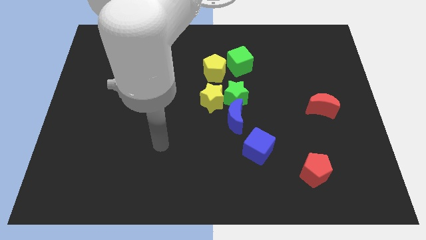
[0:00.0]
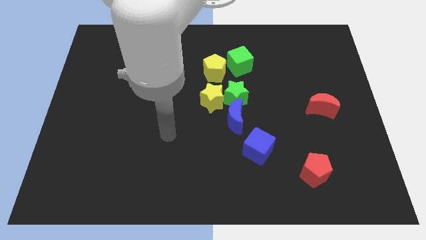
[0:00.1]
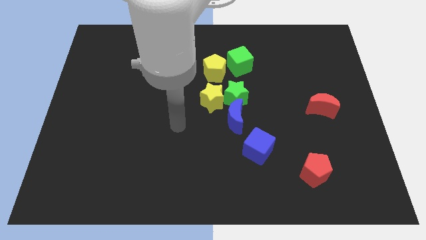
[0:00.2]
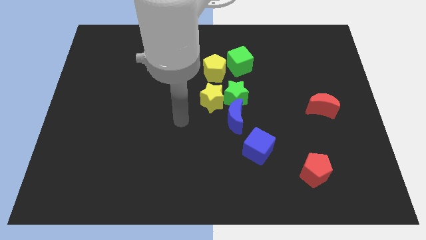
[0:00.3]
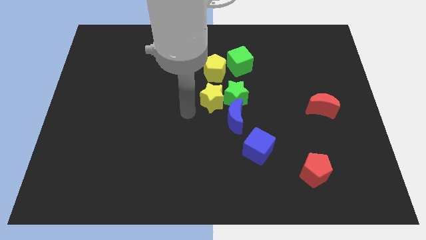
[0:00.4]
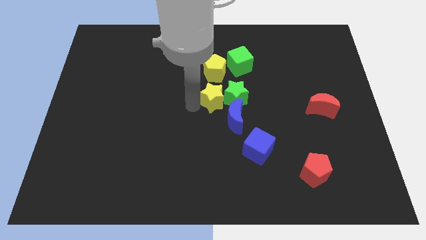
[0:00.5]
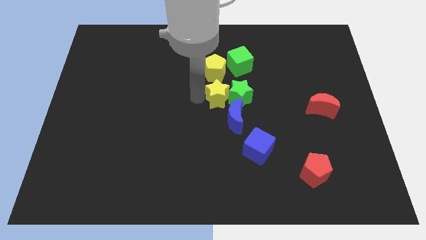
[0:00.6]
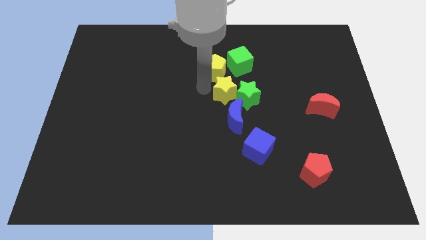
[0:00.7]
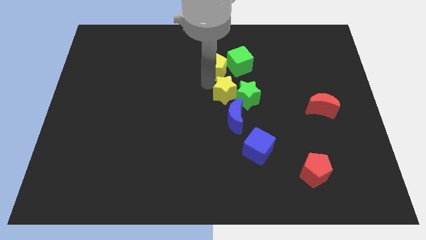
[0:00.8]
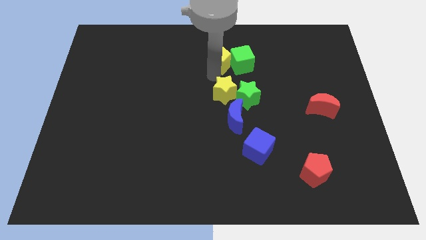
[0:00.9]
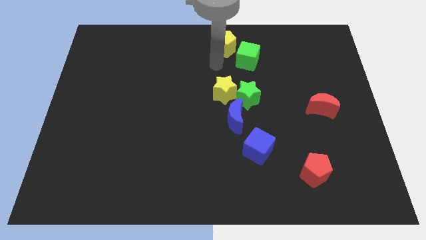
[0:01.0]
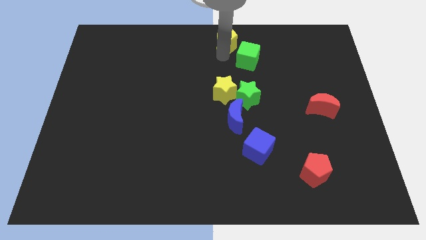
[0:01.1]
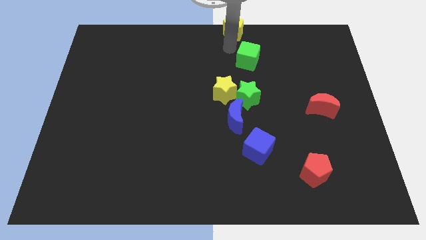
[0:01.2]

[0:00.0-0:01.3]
pull the green cube apart from the yellow pentagon

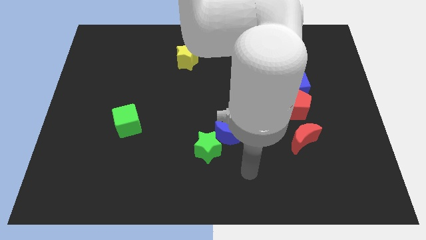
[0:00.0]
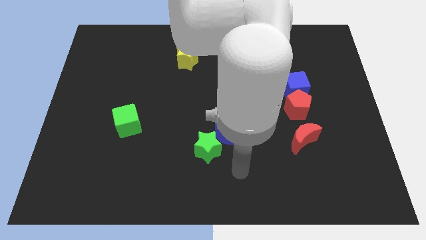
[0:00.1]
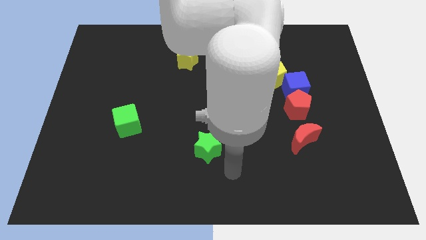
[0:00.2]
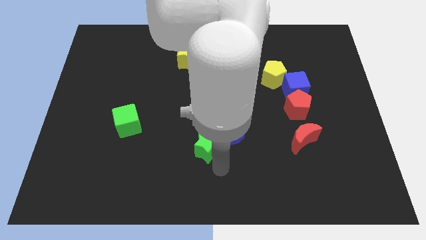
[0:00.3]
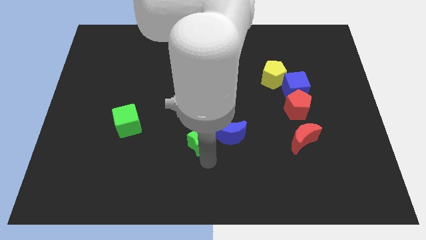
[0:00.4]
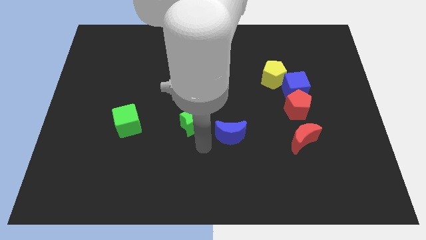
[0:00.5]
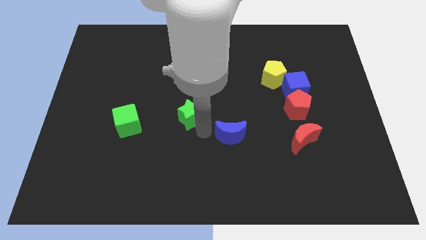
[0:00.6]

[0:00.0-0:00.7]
pull the blue moon apart from the green star

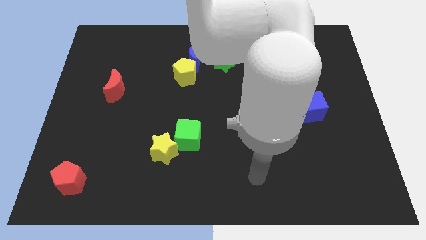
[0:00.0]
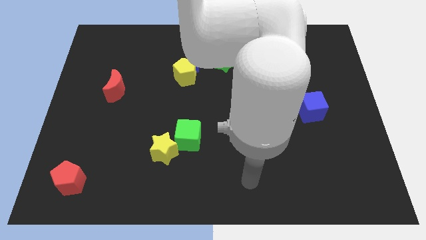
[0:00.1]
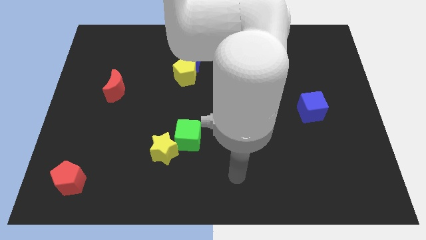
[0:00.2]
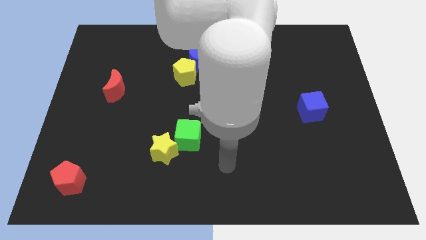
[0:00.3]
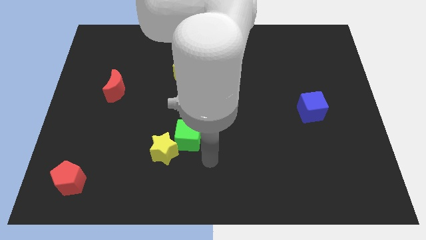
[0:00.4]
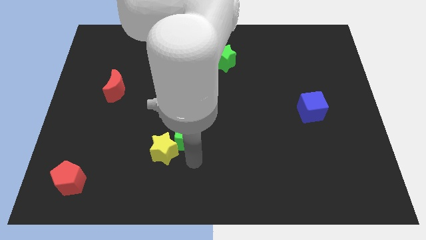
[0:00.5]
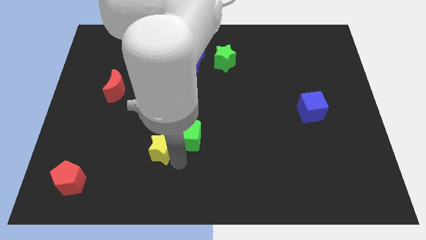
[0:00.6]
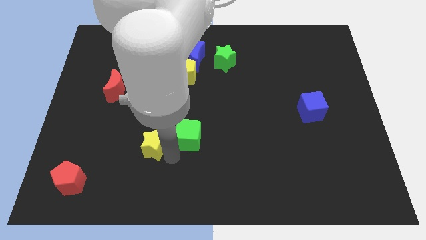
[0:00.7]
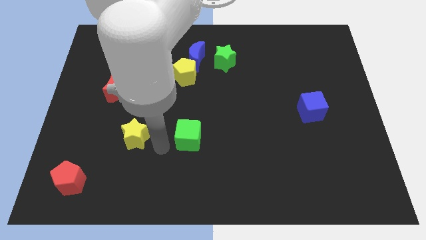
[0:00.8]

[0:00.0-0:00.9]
move the green cube away from the yellow star

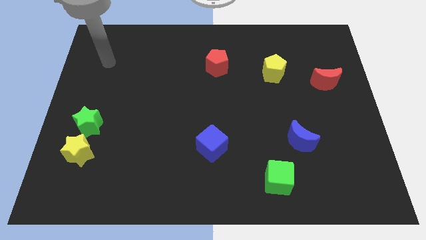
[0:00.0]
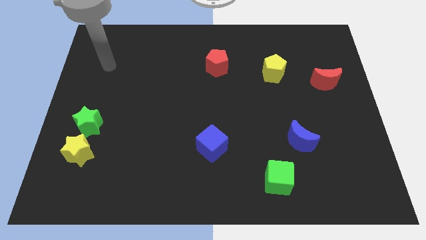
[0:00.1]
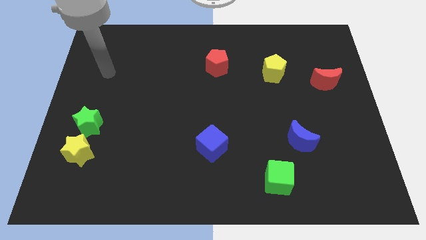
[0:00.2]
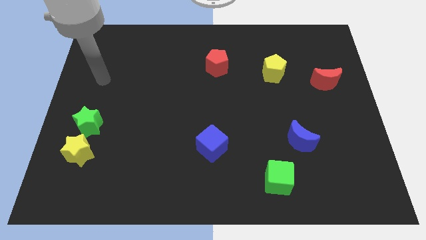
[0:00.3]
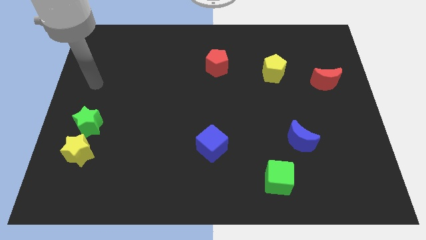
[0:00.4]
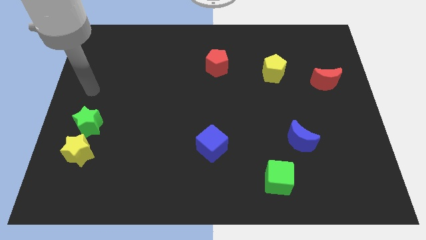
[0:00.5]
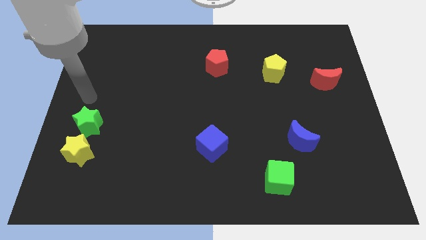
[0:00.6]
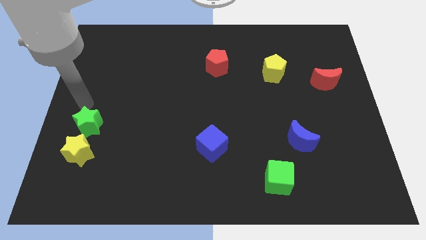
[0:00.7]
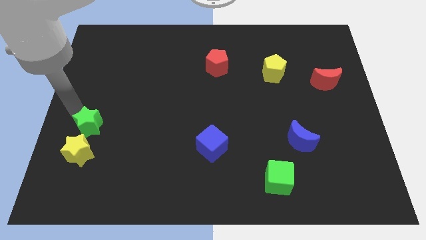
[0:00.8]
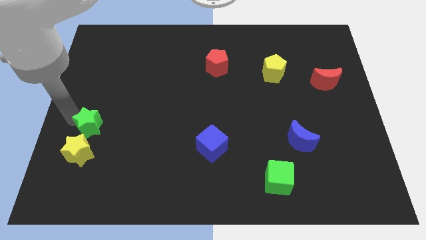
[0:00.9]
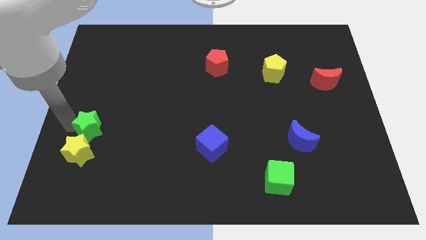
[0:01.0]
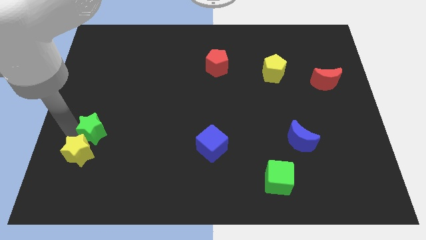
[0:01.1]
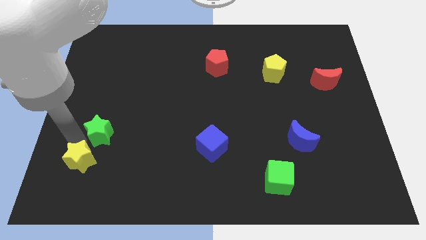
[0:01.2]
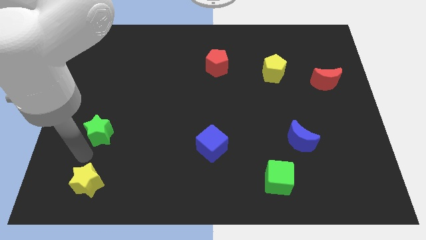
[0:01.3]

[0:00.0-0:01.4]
separate the green star from the yellow star

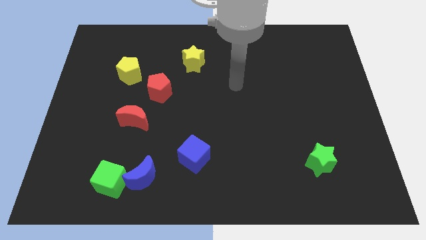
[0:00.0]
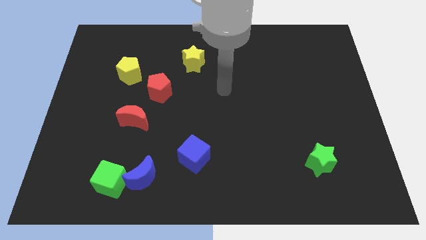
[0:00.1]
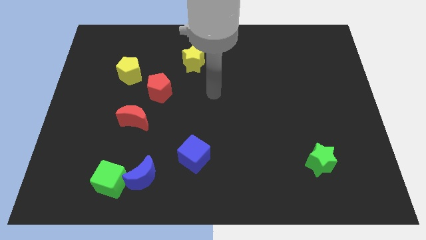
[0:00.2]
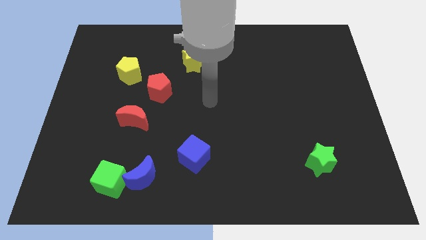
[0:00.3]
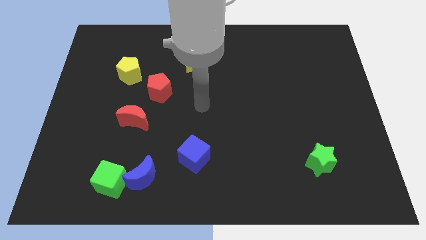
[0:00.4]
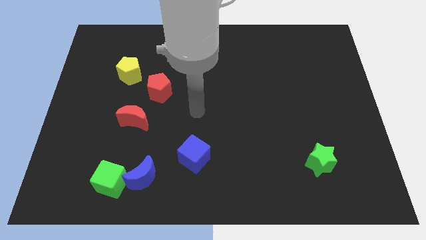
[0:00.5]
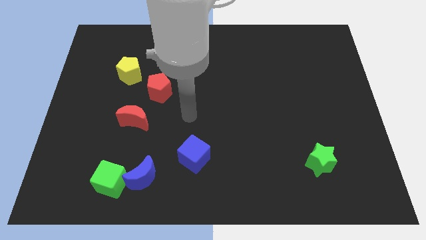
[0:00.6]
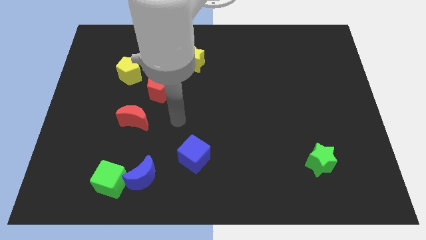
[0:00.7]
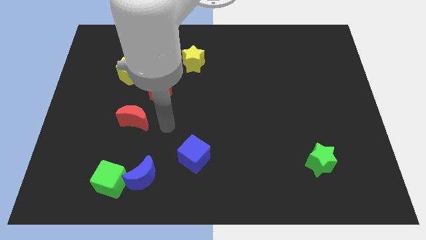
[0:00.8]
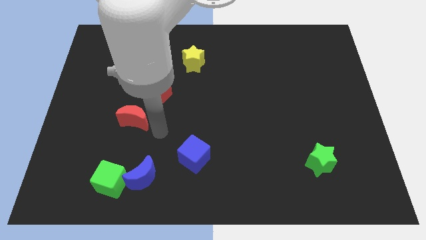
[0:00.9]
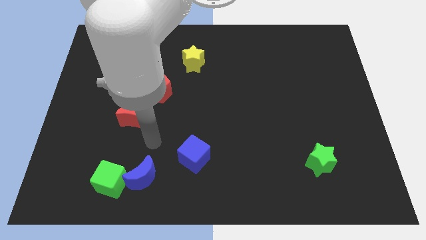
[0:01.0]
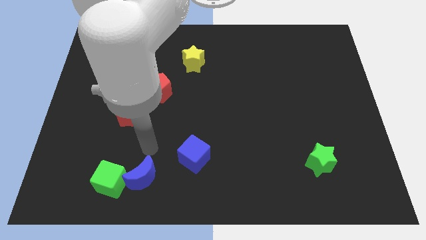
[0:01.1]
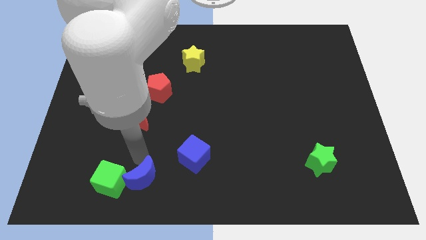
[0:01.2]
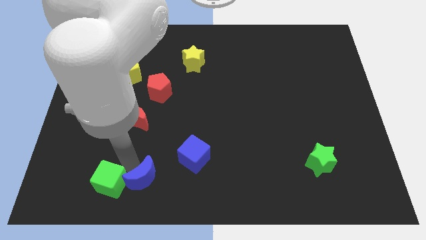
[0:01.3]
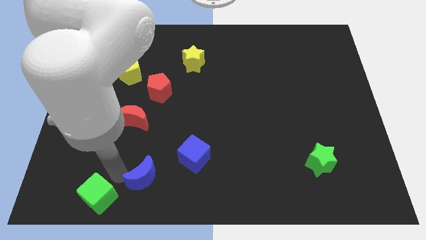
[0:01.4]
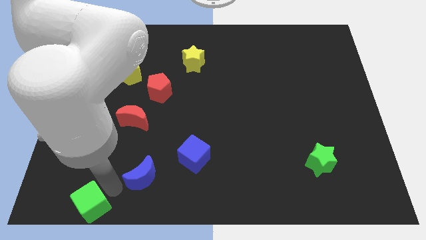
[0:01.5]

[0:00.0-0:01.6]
move the blue moon away from the green cube

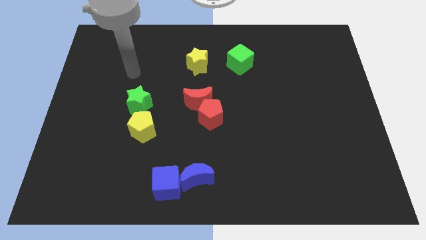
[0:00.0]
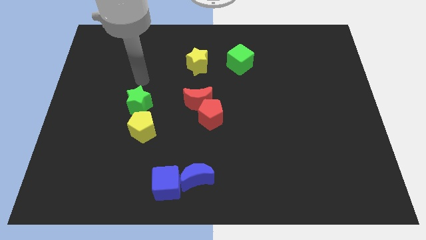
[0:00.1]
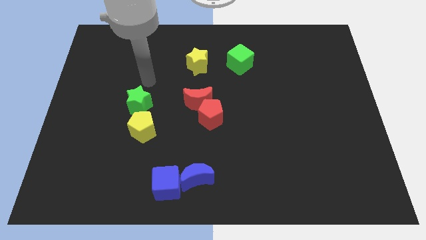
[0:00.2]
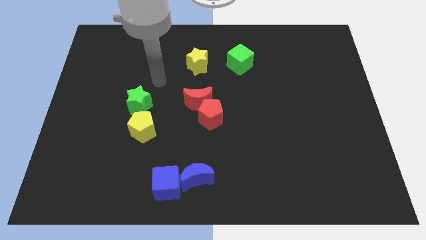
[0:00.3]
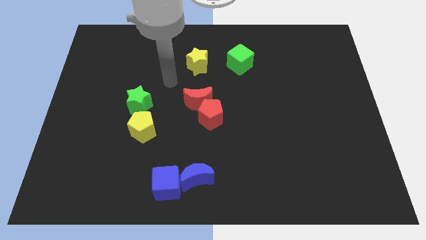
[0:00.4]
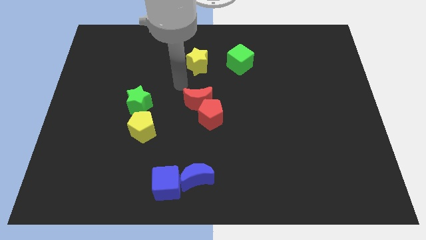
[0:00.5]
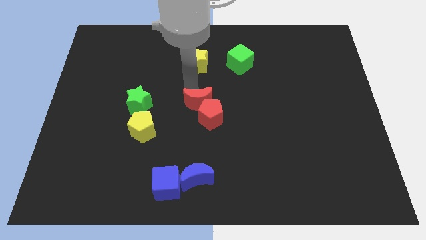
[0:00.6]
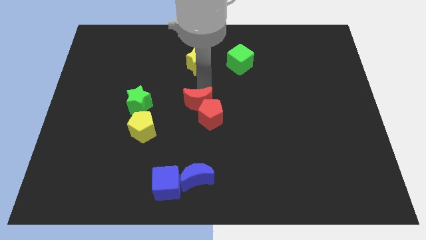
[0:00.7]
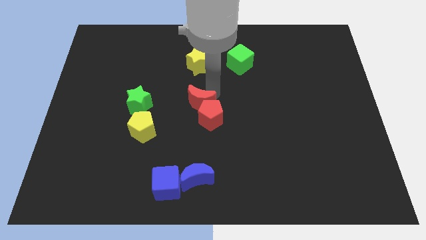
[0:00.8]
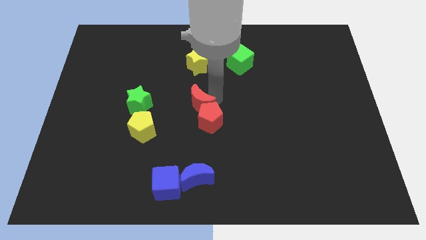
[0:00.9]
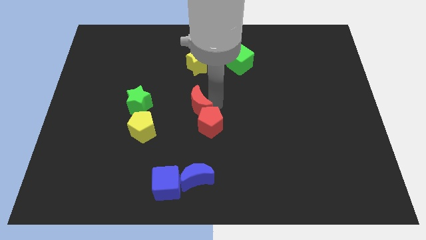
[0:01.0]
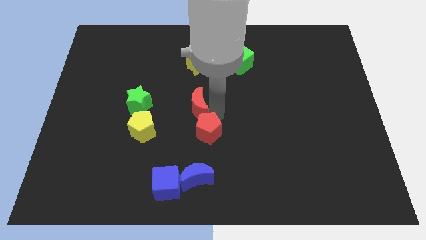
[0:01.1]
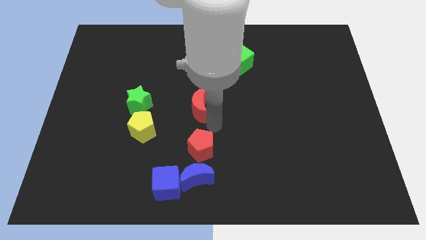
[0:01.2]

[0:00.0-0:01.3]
separate the red moon from the red pentagon

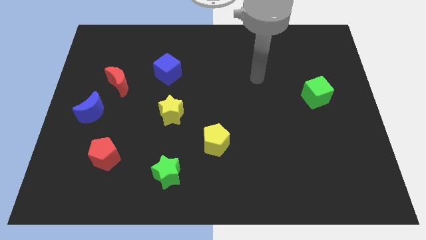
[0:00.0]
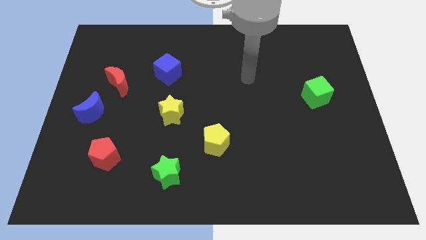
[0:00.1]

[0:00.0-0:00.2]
pull the red moon apart from the blue moon

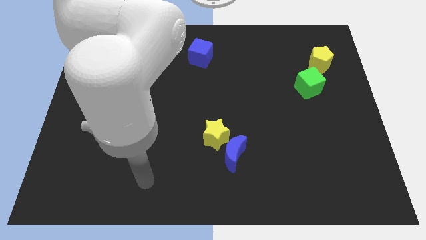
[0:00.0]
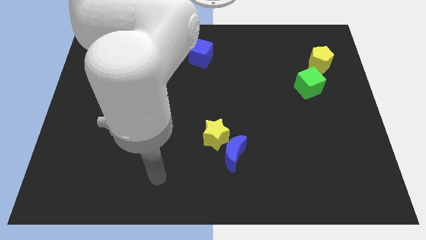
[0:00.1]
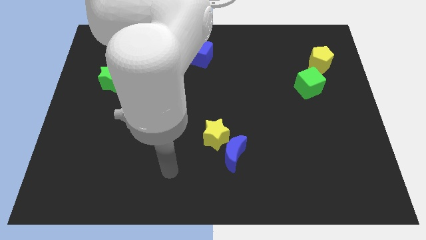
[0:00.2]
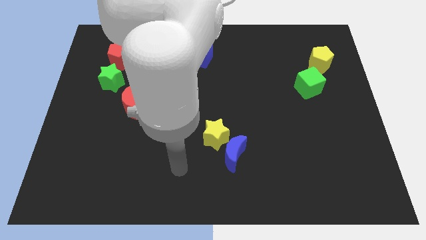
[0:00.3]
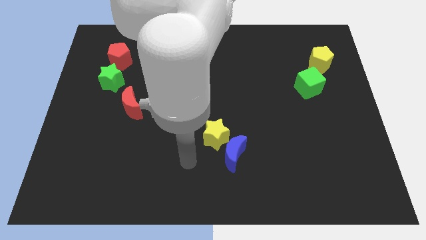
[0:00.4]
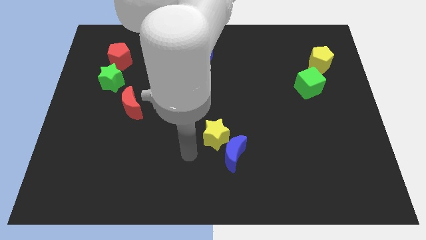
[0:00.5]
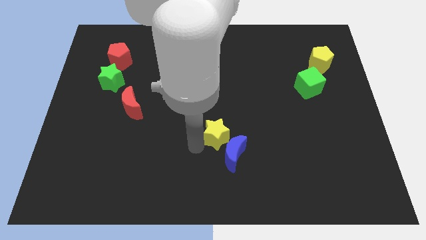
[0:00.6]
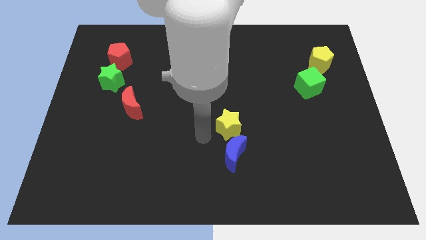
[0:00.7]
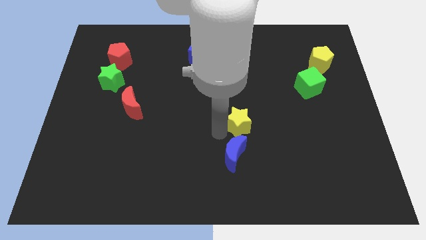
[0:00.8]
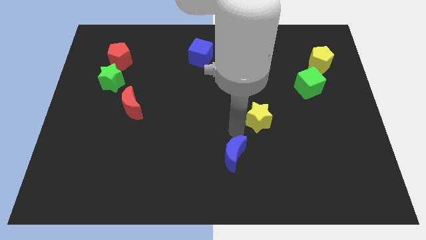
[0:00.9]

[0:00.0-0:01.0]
pull the blue moon apart from the yellow star

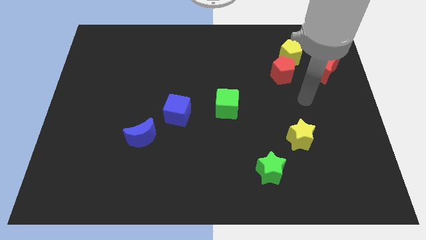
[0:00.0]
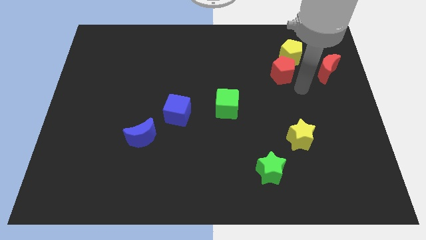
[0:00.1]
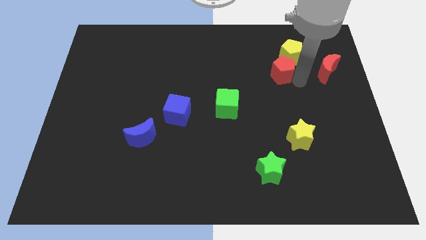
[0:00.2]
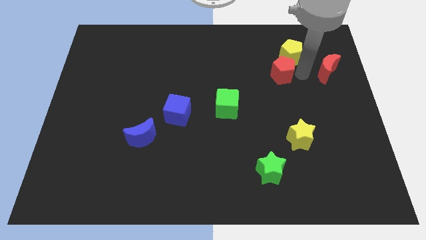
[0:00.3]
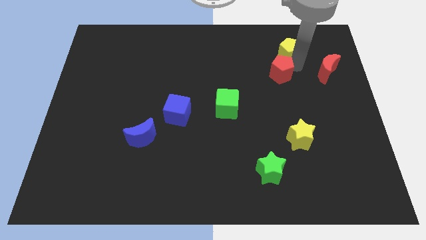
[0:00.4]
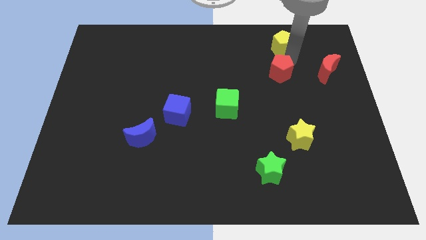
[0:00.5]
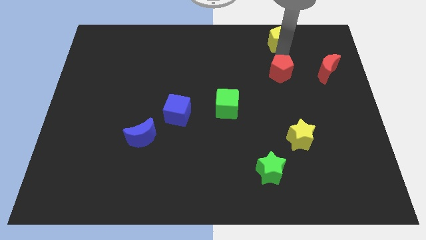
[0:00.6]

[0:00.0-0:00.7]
move the red pentagon away from the yellow pentagon

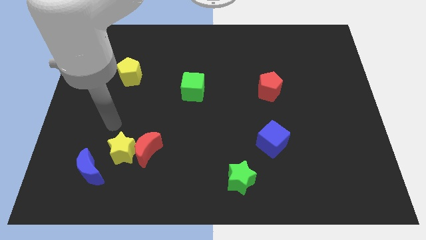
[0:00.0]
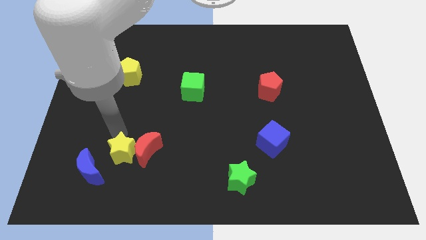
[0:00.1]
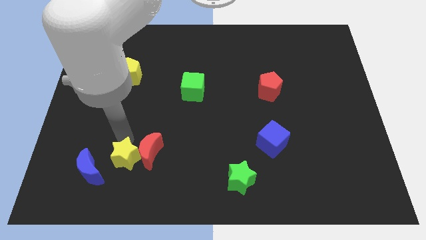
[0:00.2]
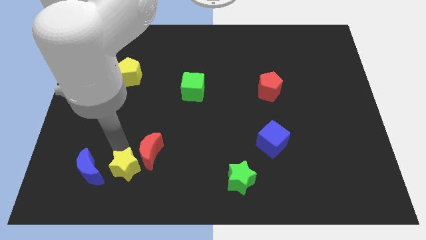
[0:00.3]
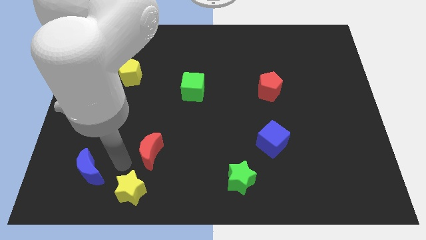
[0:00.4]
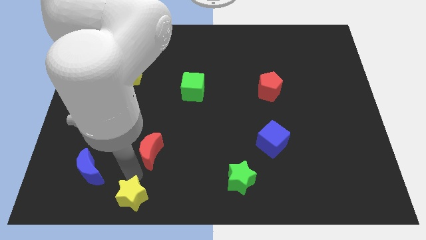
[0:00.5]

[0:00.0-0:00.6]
pull the red moon apart from the yellow star
